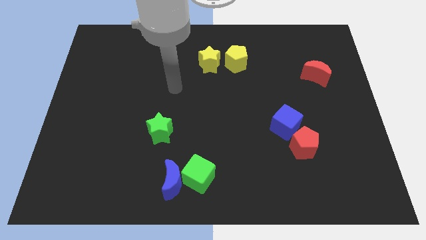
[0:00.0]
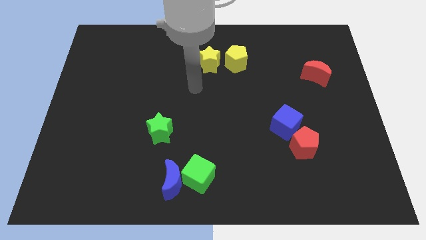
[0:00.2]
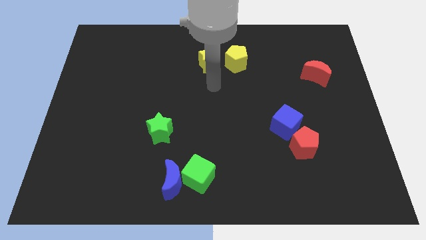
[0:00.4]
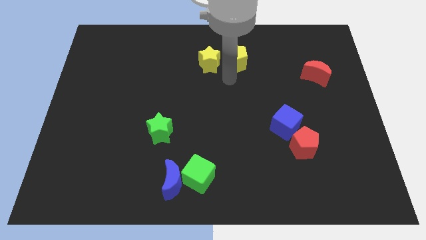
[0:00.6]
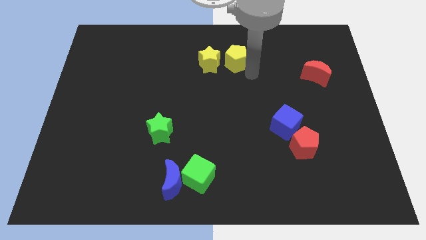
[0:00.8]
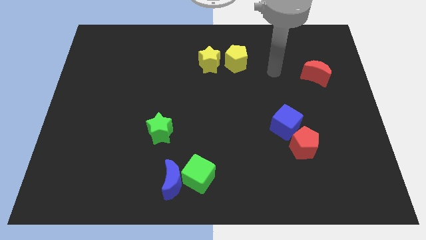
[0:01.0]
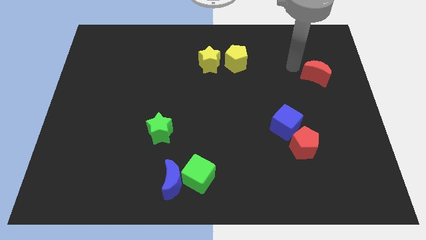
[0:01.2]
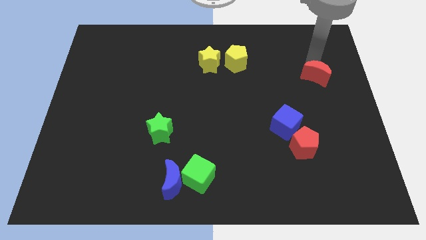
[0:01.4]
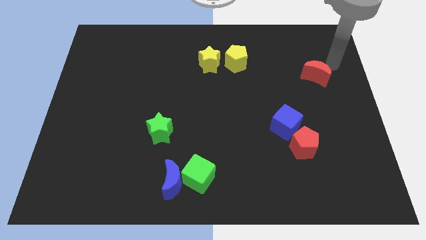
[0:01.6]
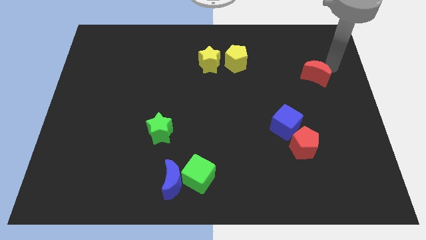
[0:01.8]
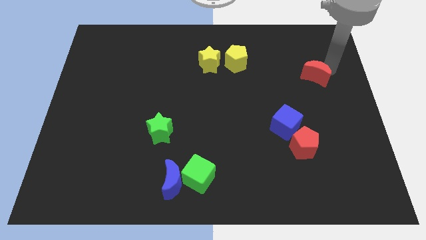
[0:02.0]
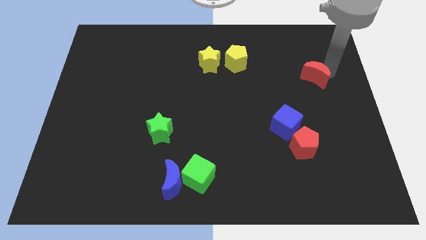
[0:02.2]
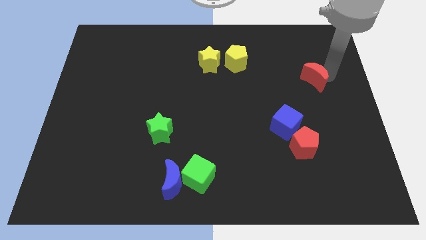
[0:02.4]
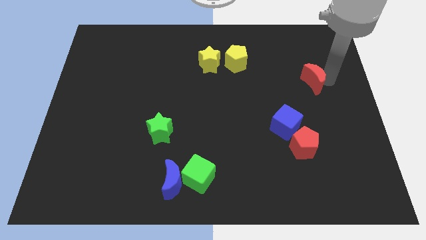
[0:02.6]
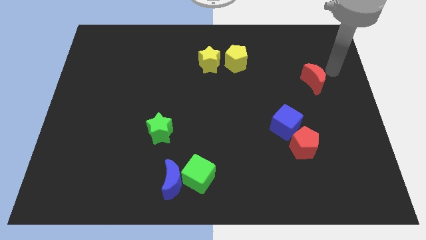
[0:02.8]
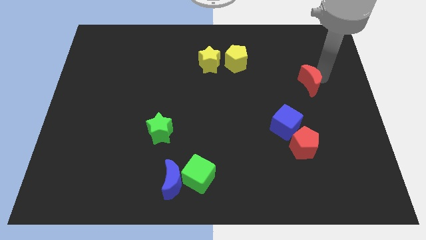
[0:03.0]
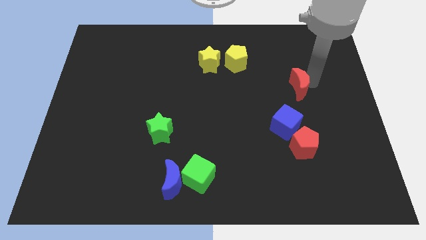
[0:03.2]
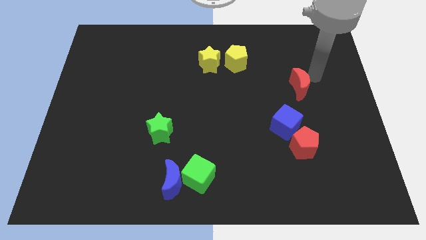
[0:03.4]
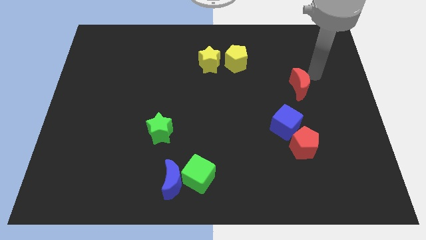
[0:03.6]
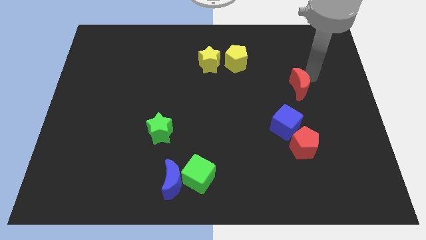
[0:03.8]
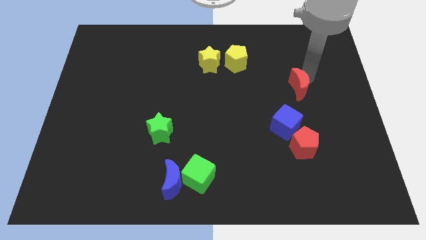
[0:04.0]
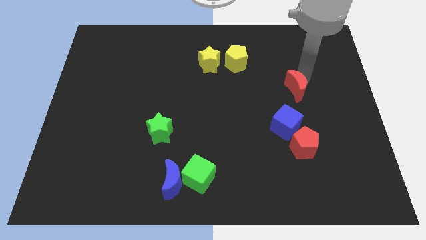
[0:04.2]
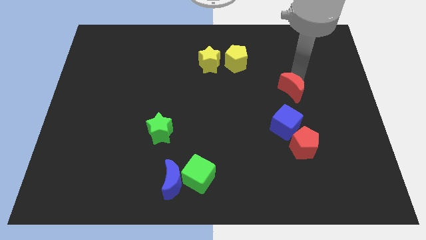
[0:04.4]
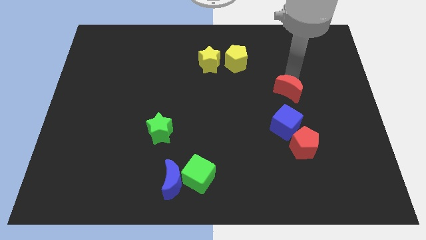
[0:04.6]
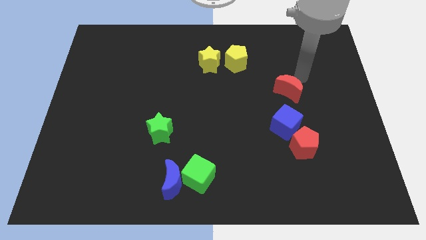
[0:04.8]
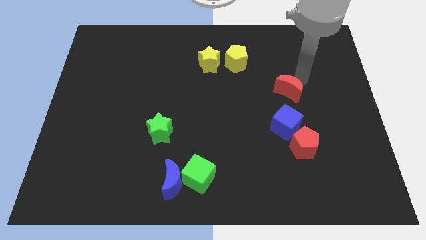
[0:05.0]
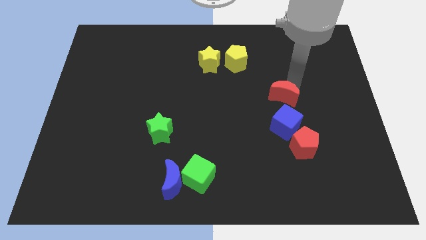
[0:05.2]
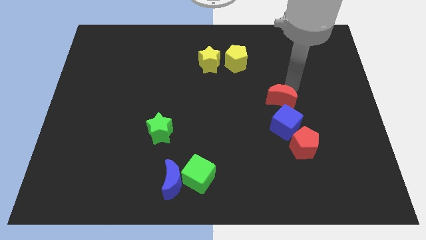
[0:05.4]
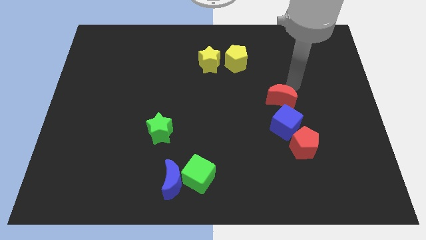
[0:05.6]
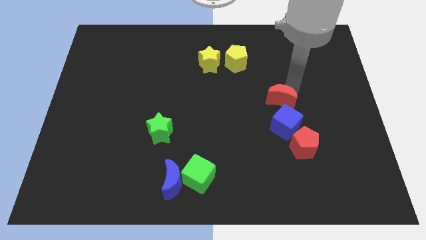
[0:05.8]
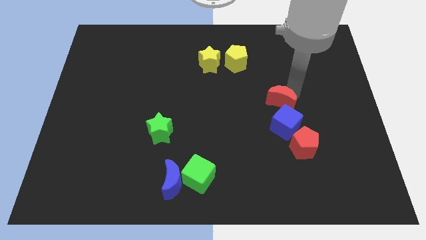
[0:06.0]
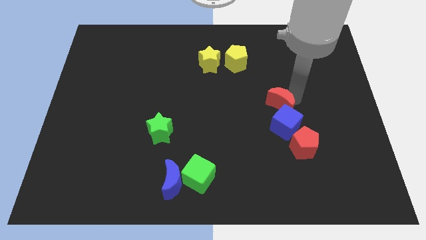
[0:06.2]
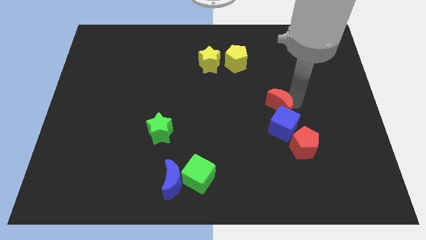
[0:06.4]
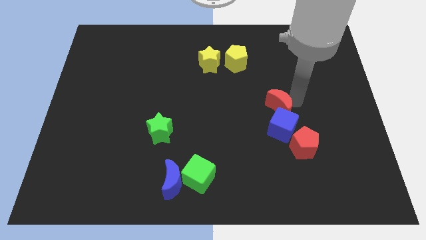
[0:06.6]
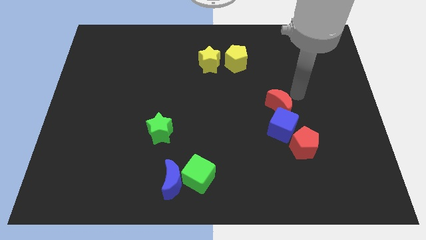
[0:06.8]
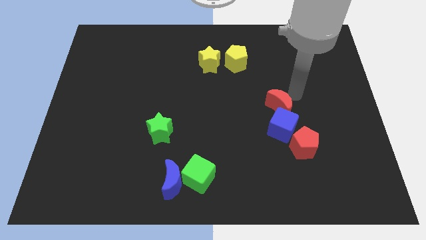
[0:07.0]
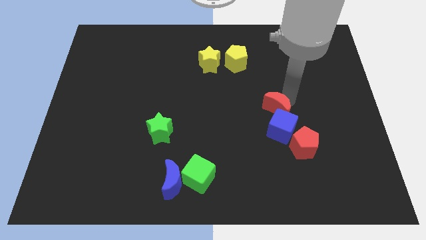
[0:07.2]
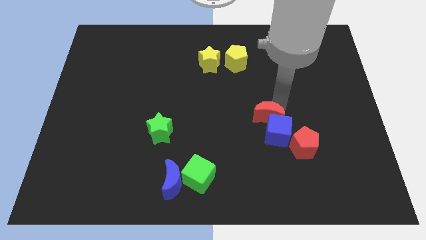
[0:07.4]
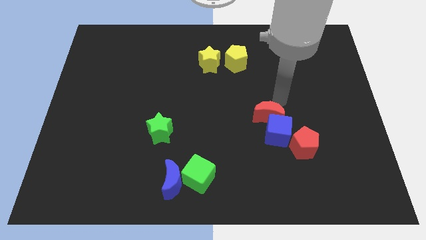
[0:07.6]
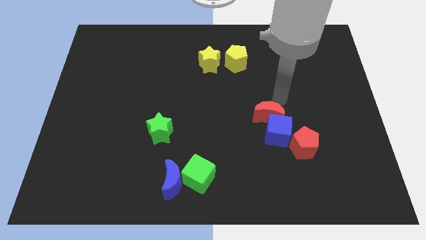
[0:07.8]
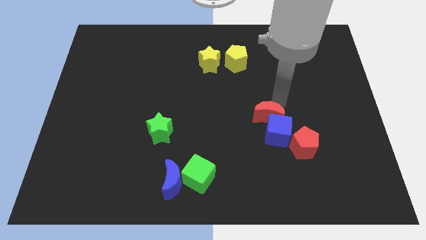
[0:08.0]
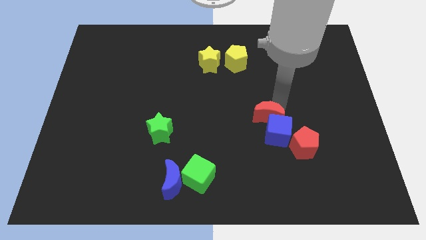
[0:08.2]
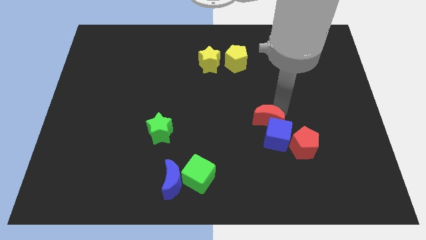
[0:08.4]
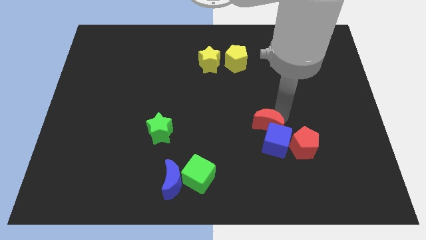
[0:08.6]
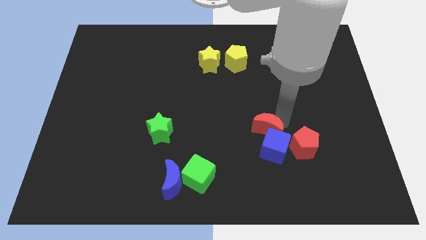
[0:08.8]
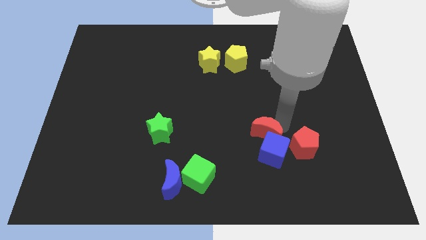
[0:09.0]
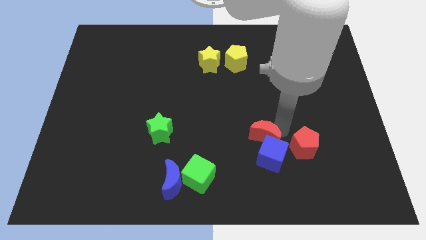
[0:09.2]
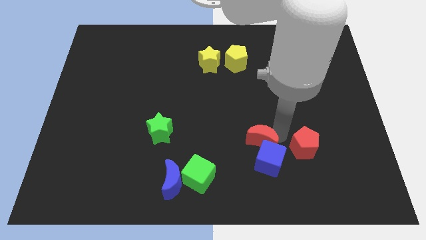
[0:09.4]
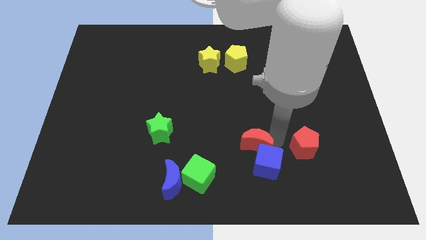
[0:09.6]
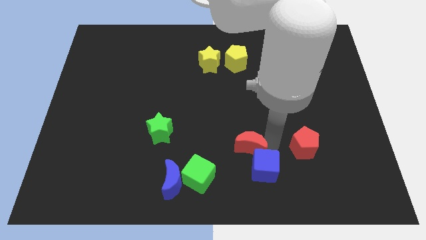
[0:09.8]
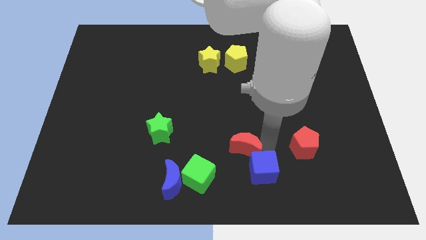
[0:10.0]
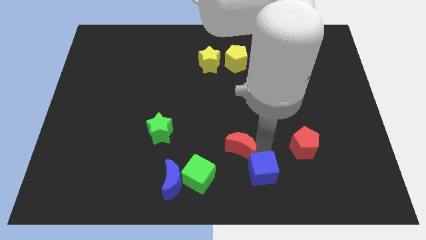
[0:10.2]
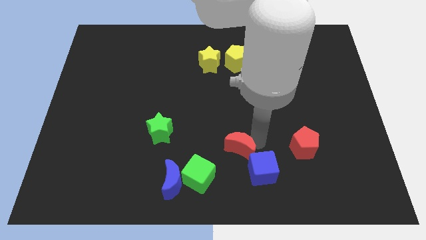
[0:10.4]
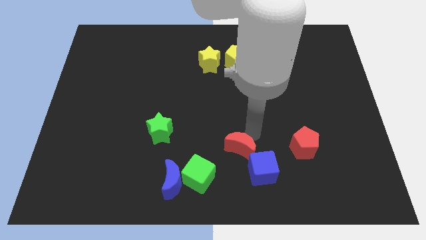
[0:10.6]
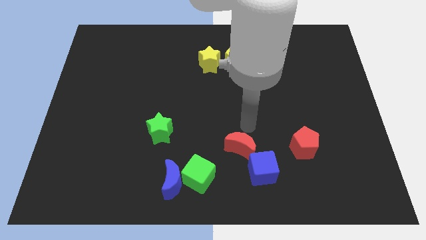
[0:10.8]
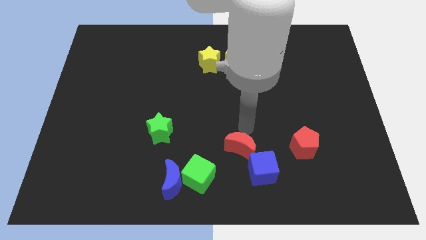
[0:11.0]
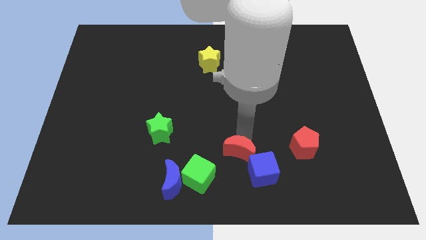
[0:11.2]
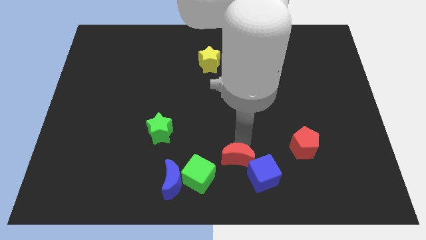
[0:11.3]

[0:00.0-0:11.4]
push the red moon to the bottom

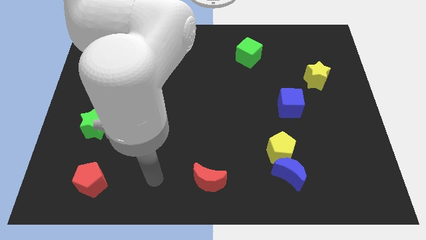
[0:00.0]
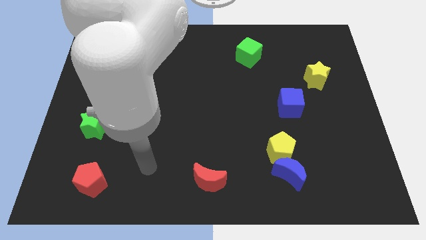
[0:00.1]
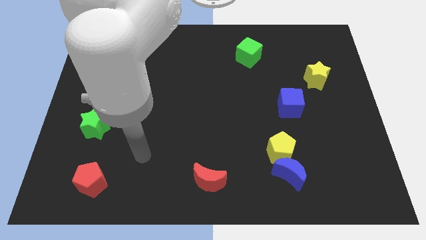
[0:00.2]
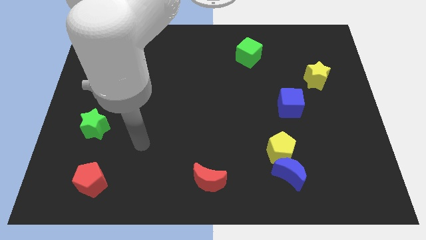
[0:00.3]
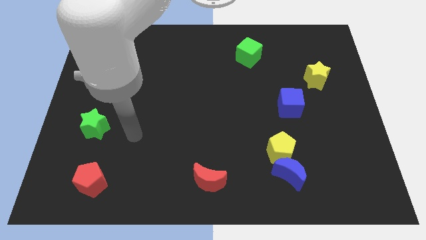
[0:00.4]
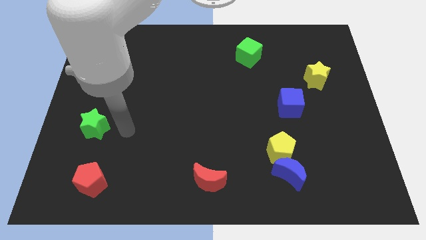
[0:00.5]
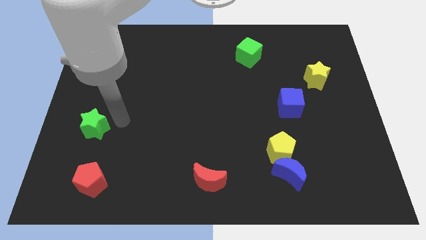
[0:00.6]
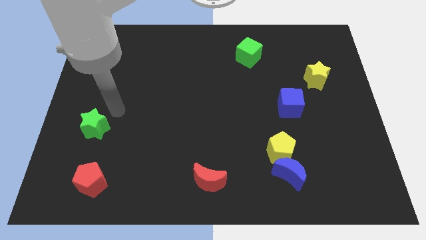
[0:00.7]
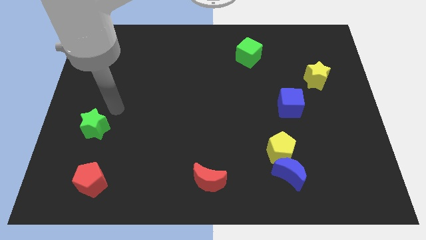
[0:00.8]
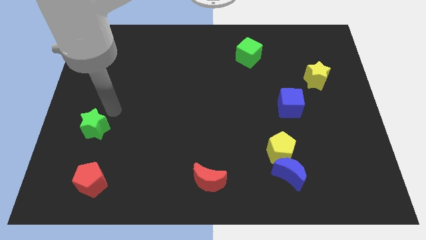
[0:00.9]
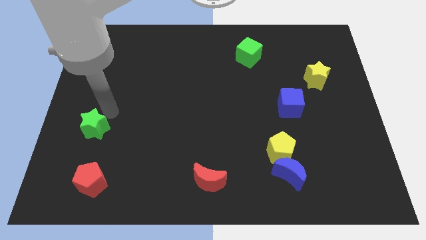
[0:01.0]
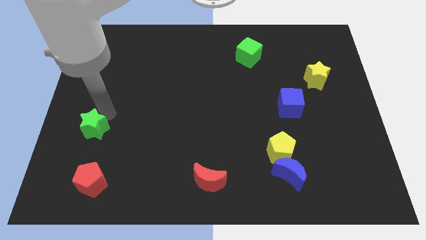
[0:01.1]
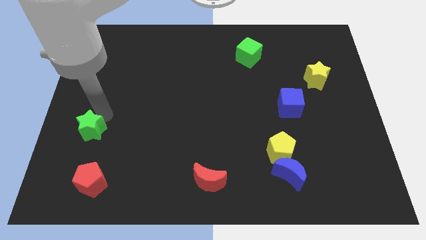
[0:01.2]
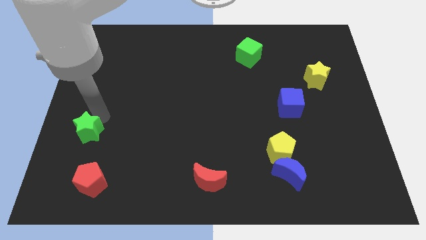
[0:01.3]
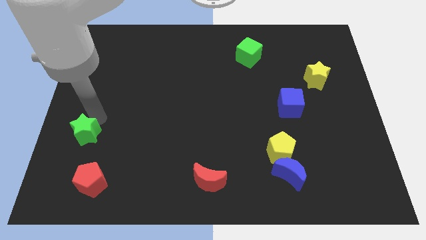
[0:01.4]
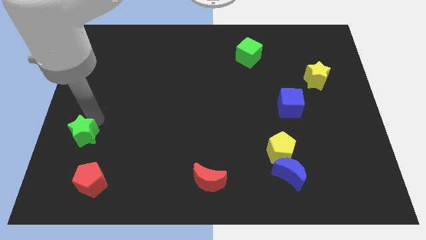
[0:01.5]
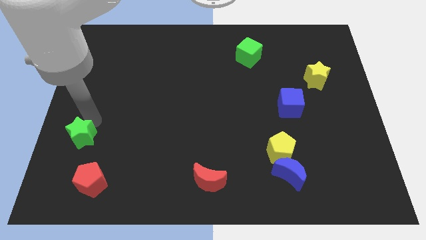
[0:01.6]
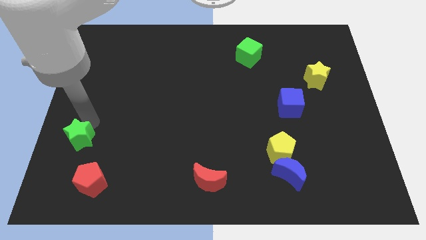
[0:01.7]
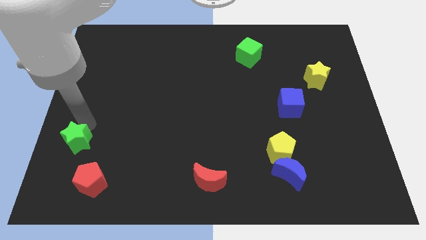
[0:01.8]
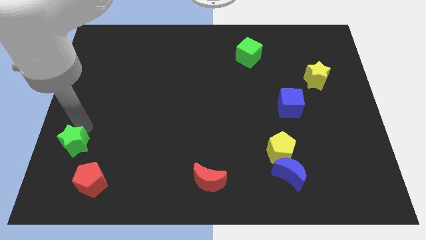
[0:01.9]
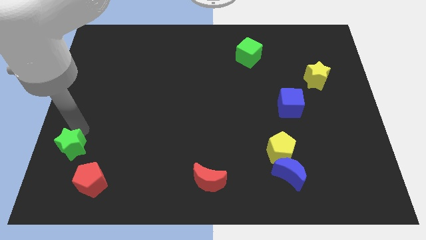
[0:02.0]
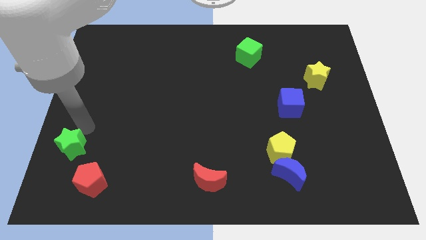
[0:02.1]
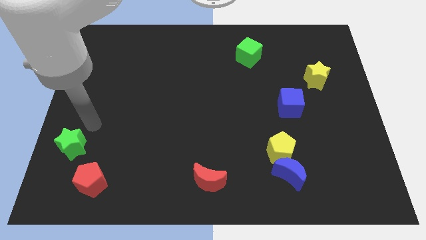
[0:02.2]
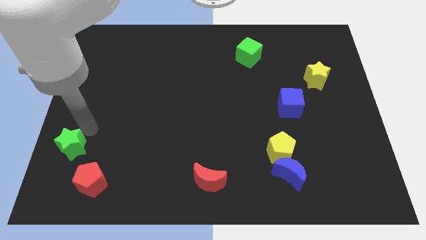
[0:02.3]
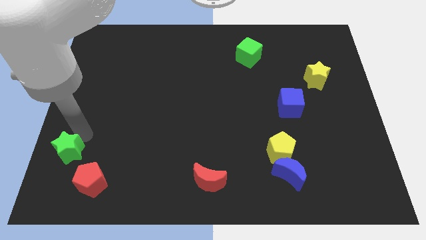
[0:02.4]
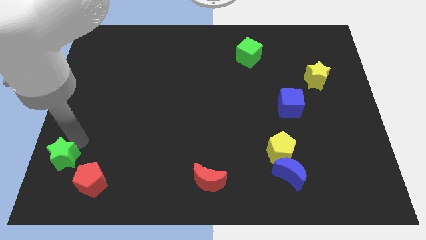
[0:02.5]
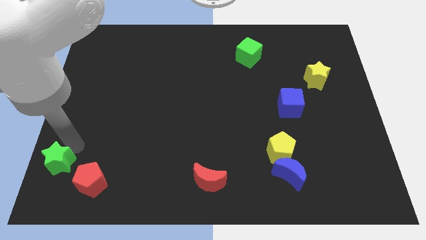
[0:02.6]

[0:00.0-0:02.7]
move the green star to the lower left corner
